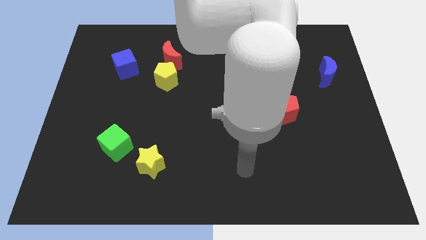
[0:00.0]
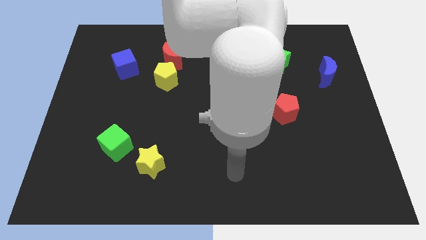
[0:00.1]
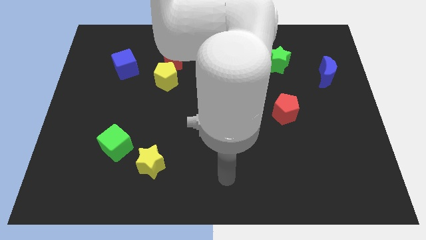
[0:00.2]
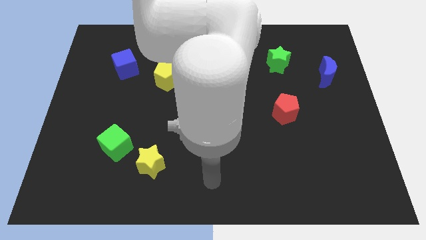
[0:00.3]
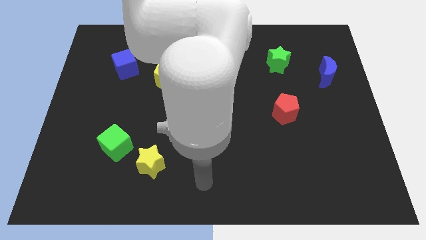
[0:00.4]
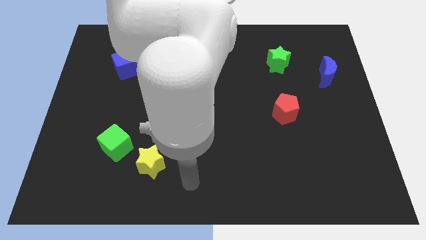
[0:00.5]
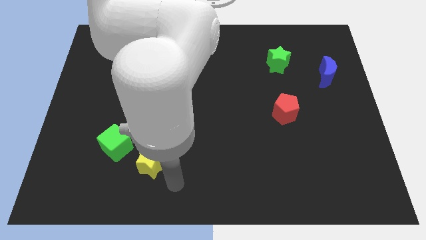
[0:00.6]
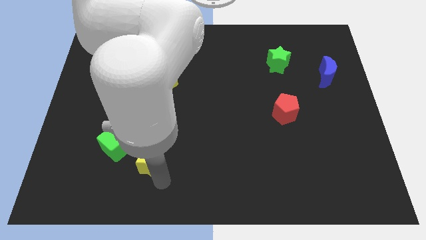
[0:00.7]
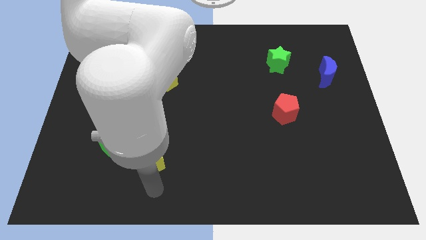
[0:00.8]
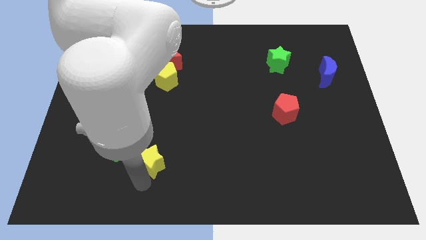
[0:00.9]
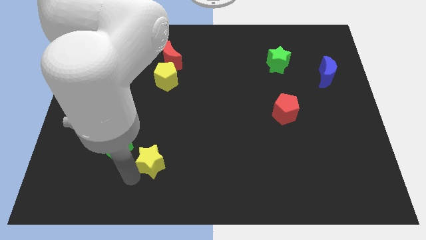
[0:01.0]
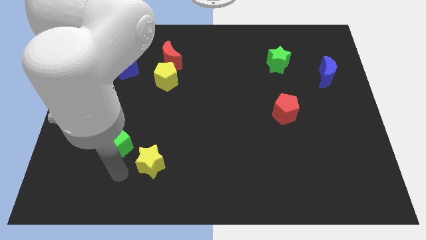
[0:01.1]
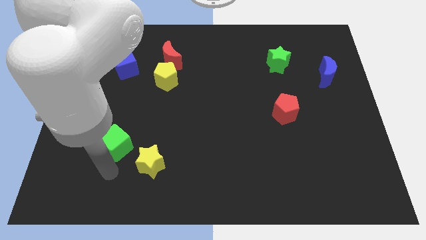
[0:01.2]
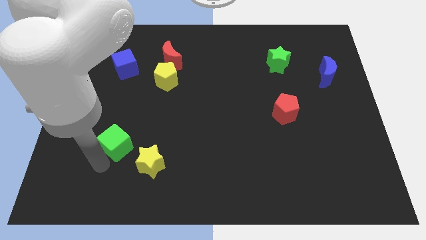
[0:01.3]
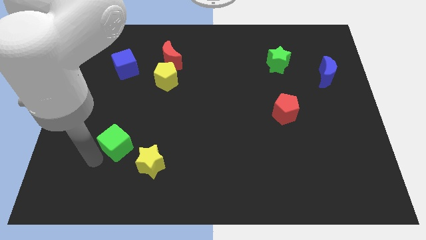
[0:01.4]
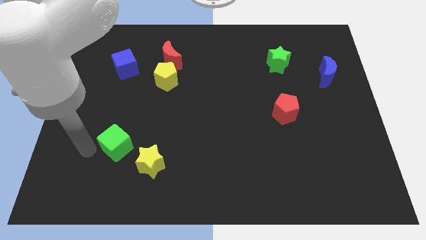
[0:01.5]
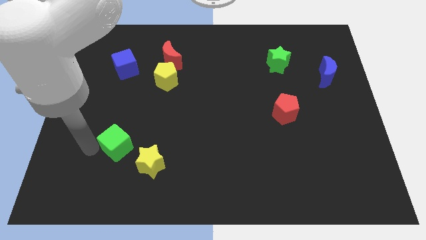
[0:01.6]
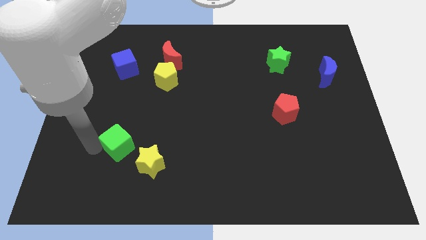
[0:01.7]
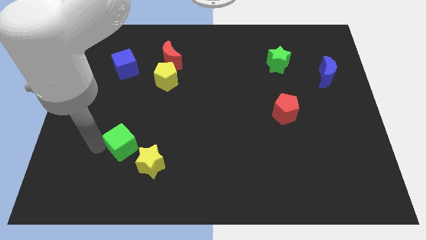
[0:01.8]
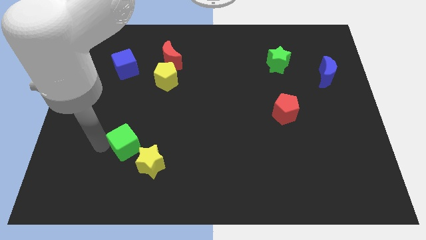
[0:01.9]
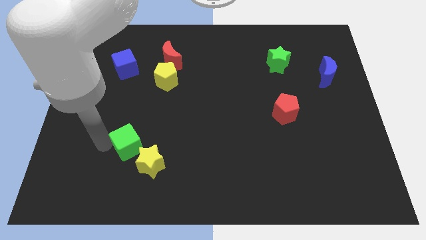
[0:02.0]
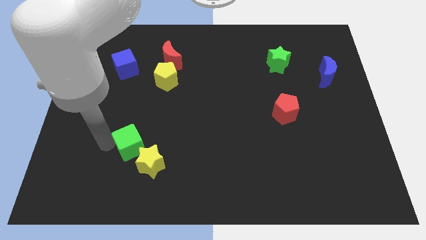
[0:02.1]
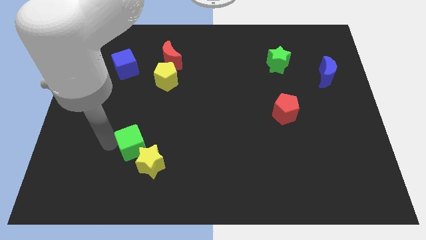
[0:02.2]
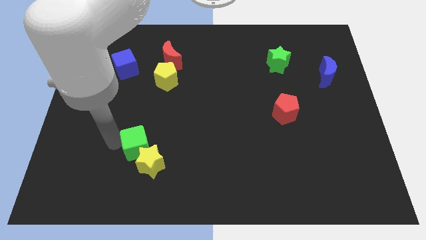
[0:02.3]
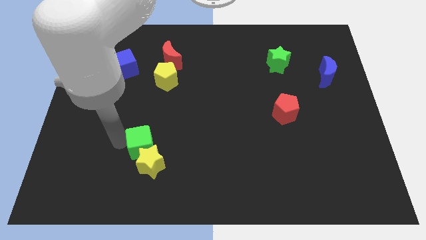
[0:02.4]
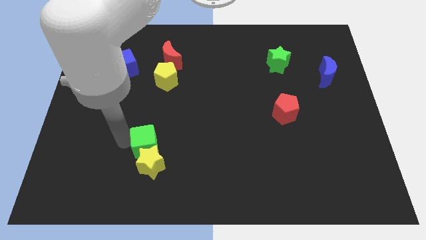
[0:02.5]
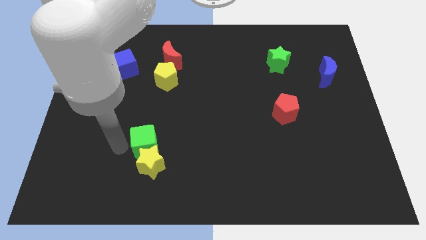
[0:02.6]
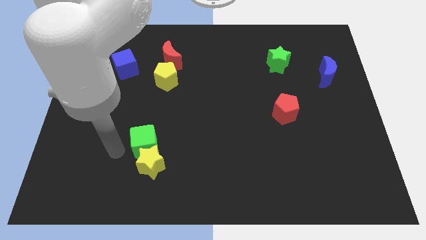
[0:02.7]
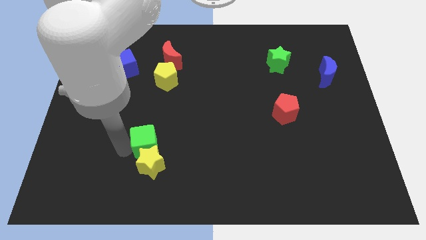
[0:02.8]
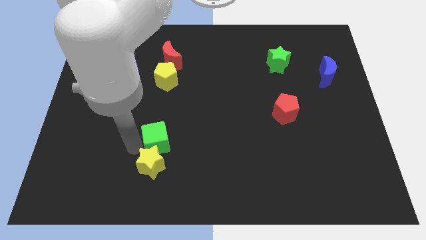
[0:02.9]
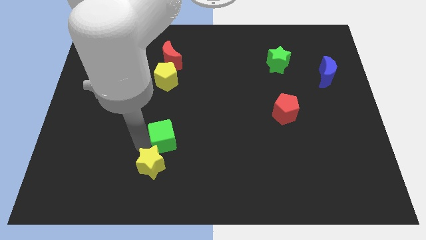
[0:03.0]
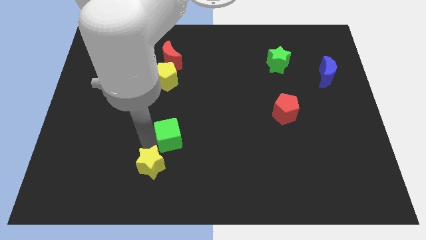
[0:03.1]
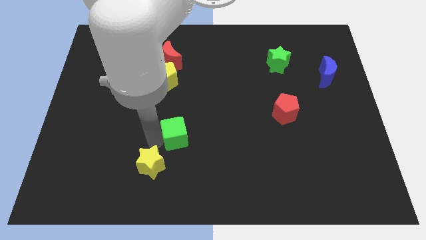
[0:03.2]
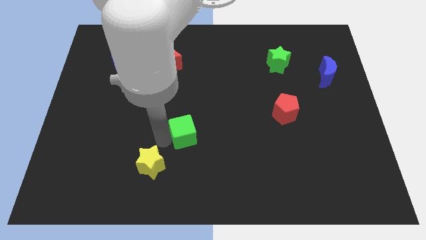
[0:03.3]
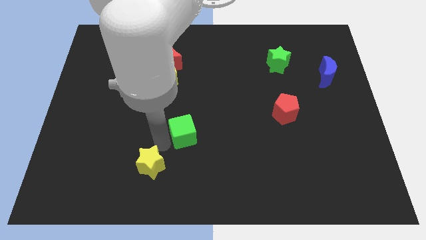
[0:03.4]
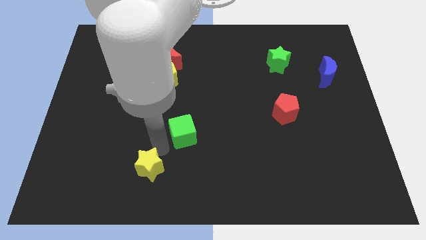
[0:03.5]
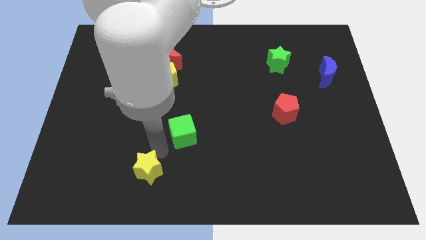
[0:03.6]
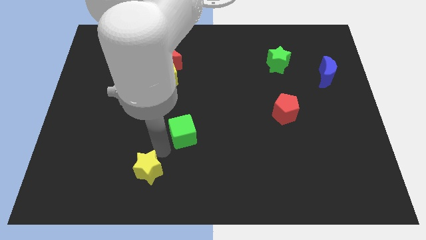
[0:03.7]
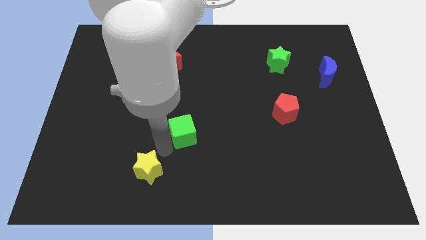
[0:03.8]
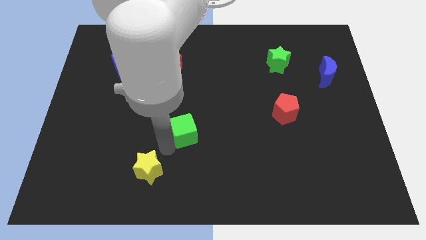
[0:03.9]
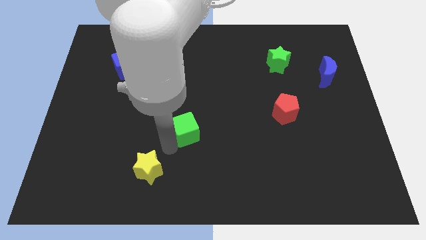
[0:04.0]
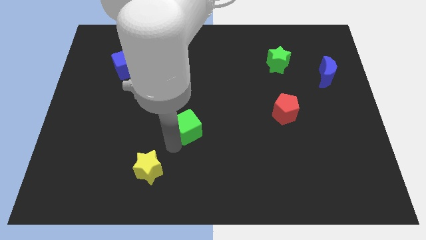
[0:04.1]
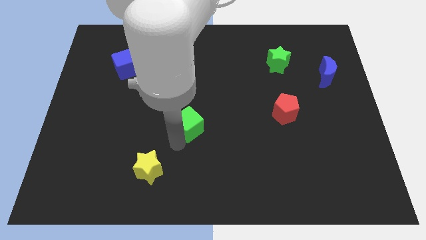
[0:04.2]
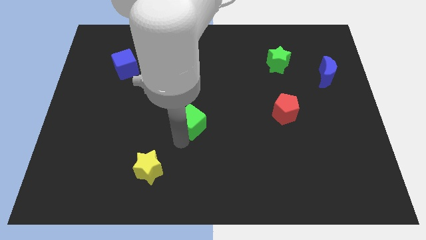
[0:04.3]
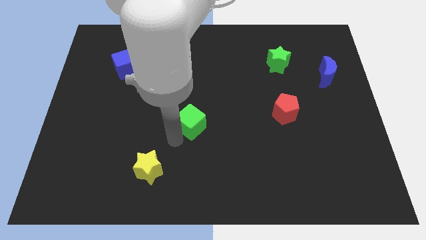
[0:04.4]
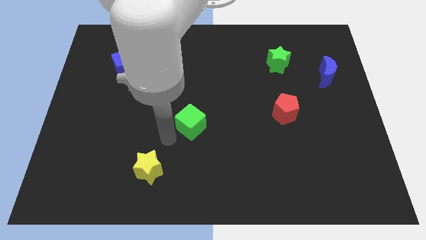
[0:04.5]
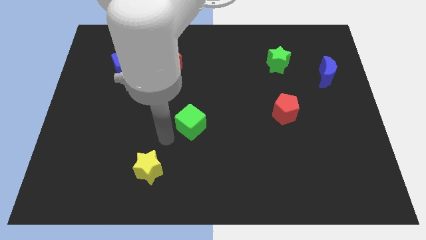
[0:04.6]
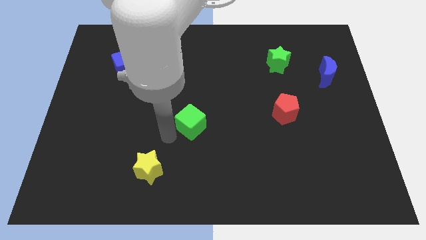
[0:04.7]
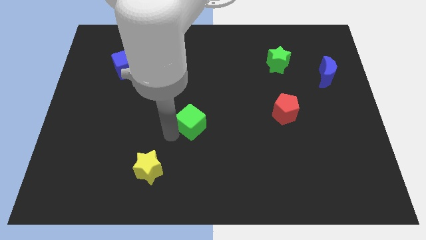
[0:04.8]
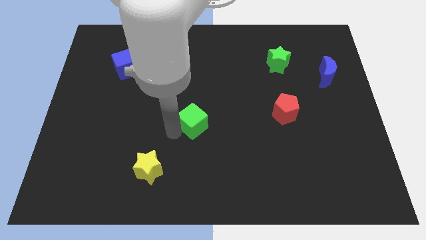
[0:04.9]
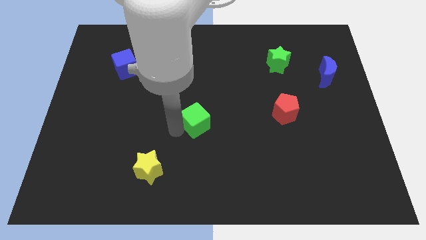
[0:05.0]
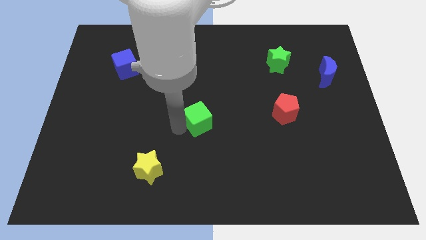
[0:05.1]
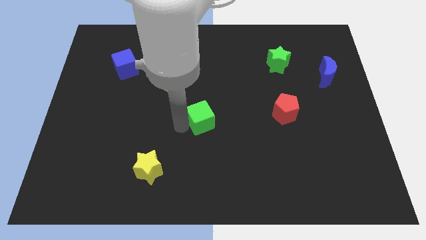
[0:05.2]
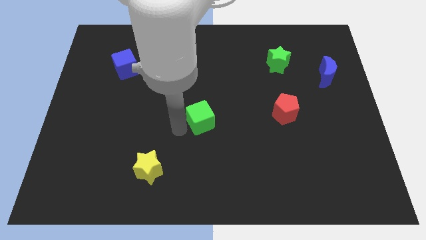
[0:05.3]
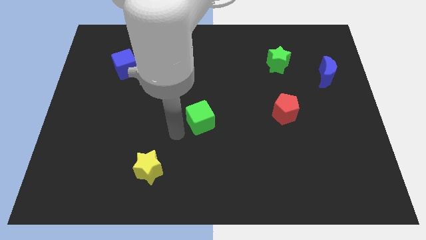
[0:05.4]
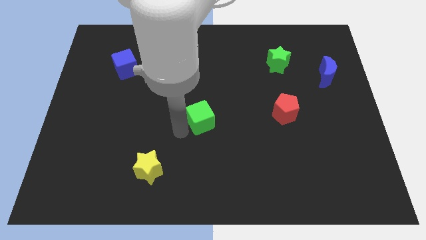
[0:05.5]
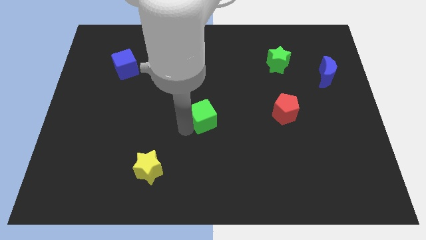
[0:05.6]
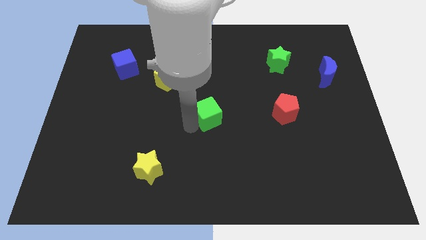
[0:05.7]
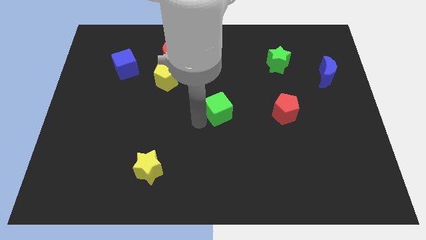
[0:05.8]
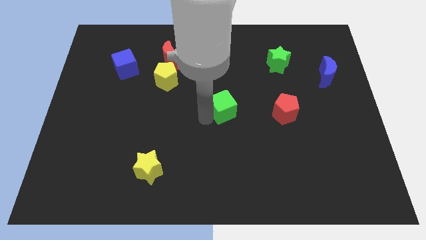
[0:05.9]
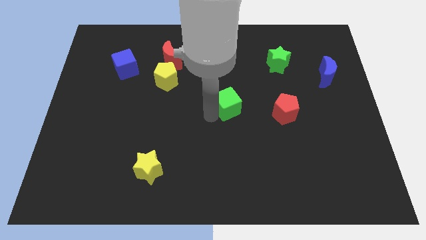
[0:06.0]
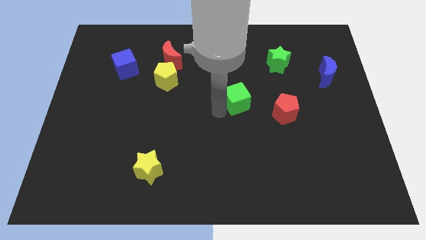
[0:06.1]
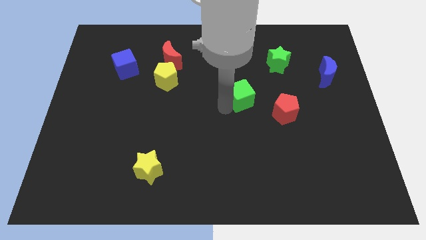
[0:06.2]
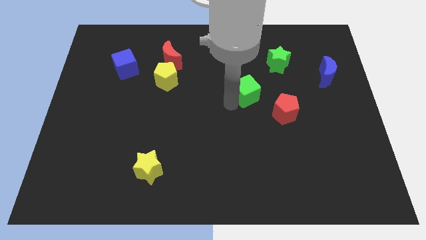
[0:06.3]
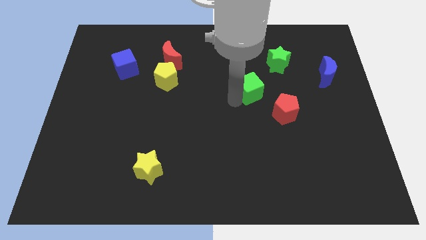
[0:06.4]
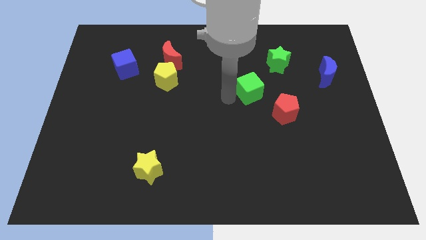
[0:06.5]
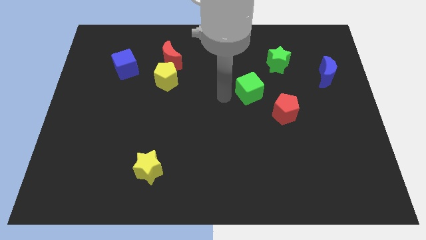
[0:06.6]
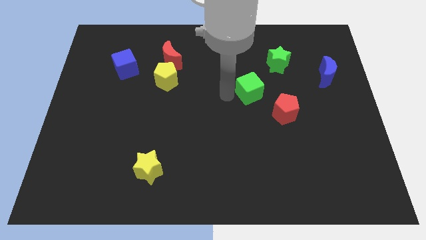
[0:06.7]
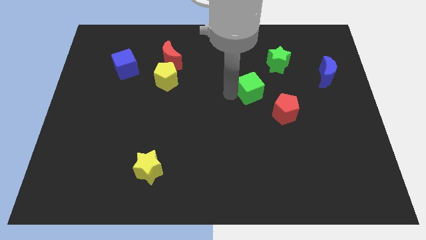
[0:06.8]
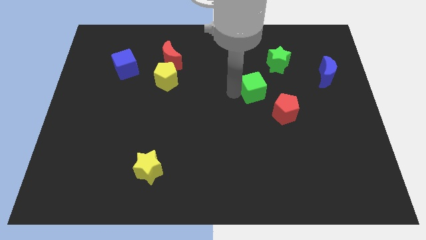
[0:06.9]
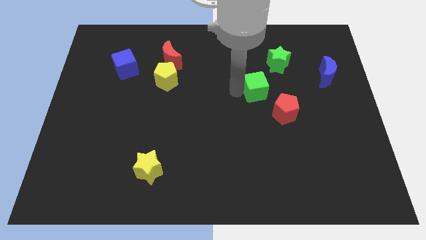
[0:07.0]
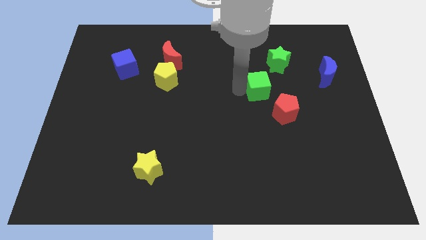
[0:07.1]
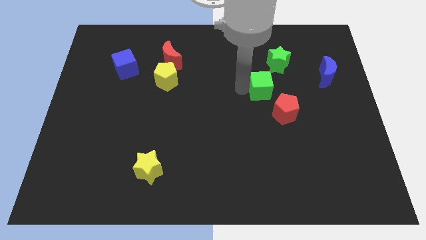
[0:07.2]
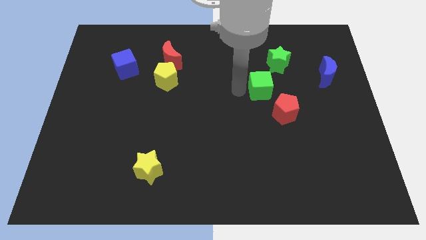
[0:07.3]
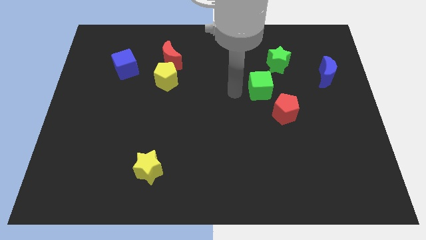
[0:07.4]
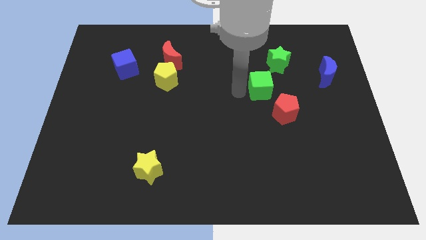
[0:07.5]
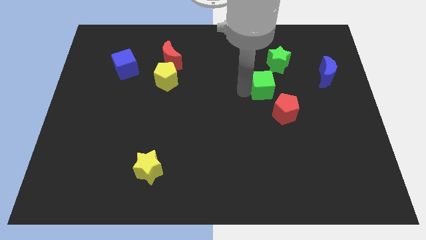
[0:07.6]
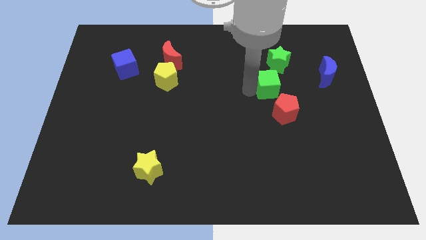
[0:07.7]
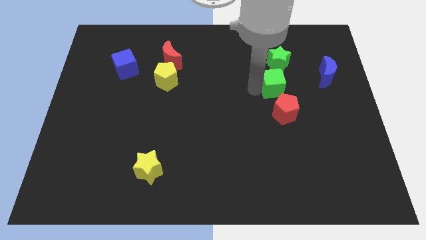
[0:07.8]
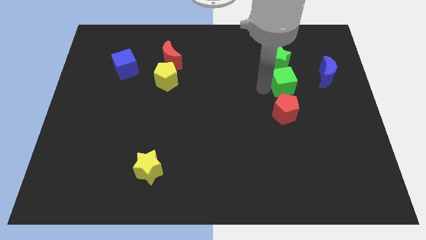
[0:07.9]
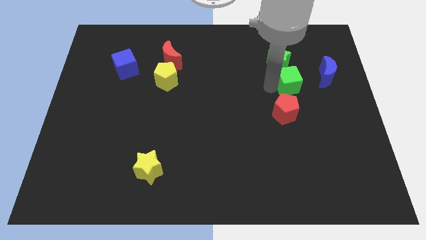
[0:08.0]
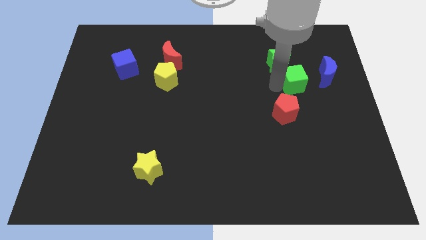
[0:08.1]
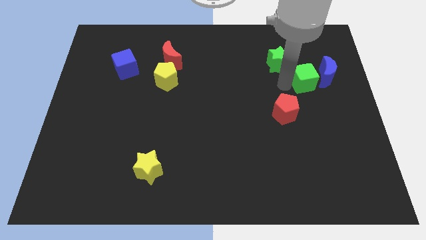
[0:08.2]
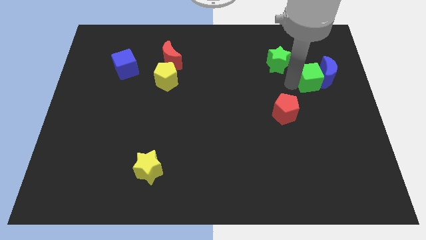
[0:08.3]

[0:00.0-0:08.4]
put the green cube towards the blue moon
